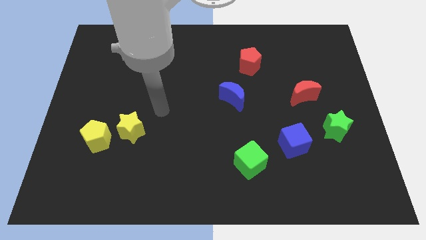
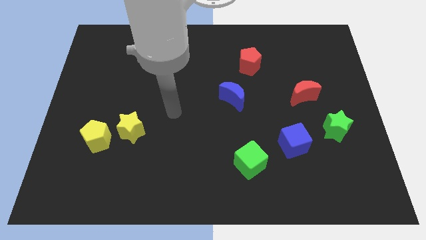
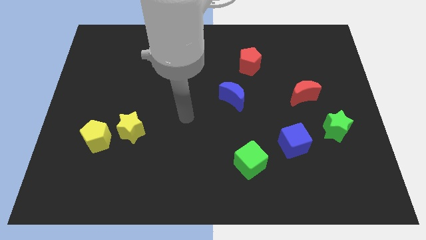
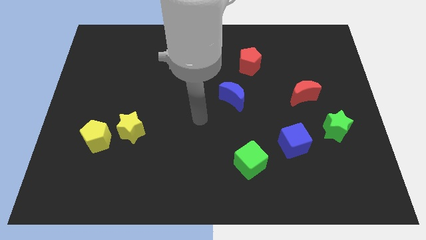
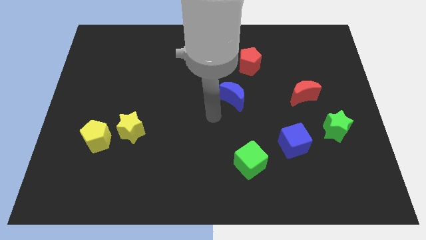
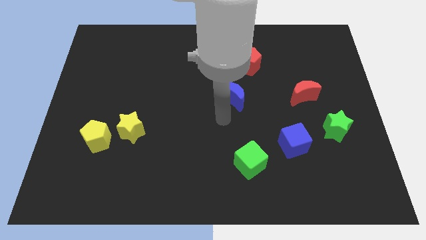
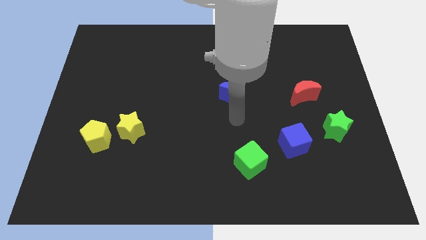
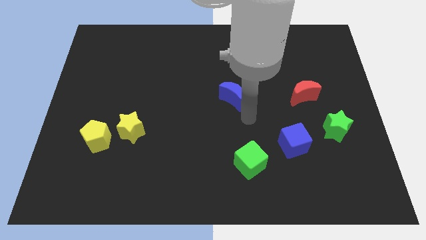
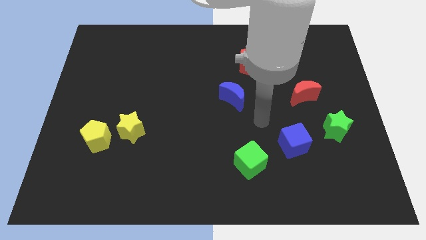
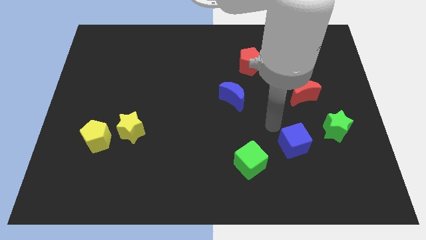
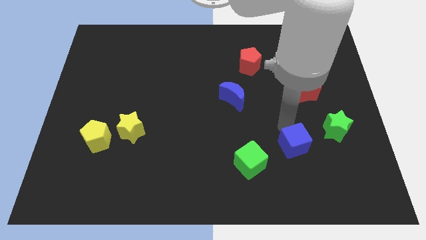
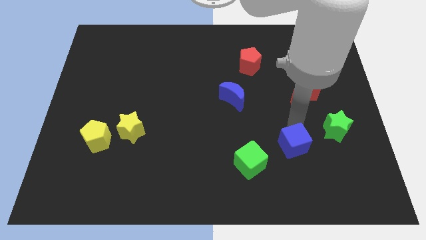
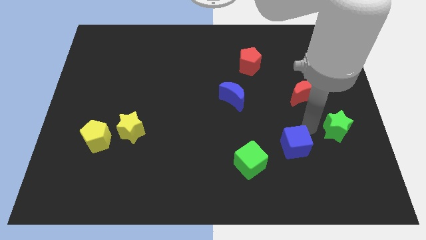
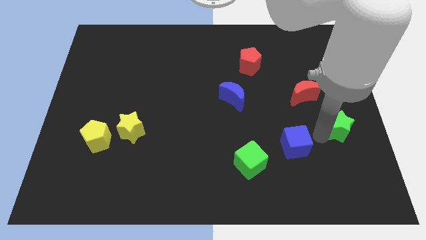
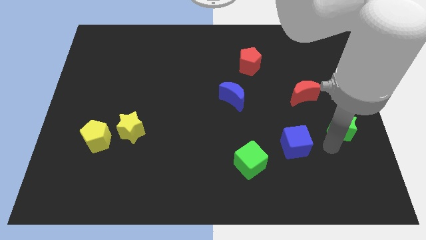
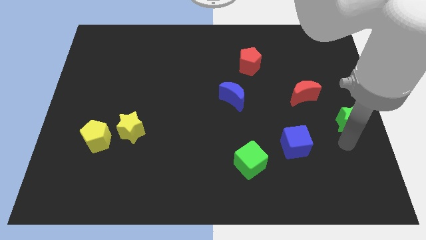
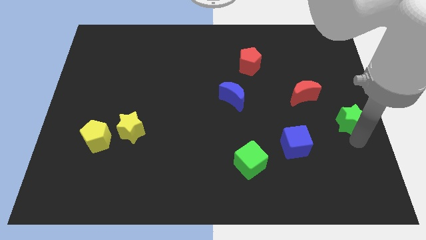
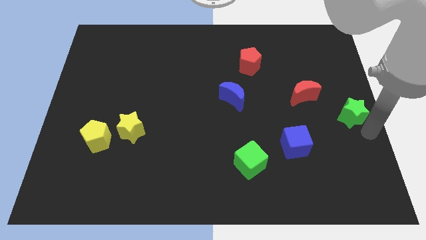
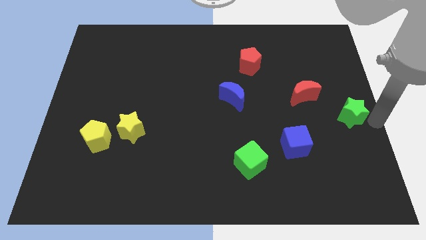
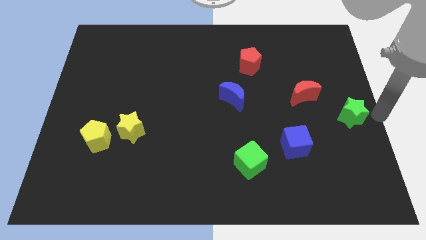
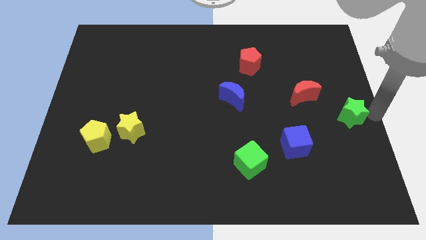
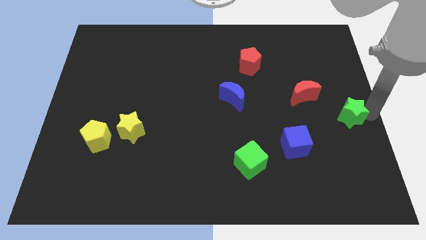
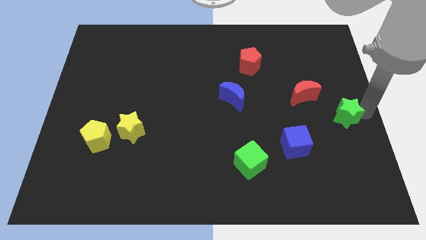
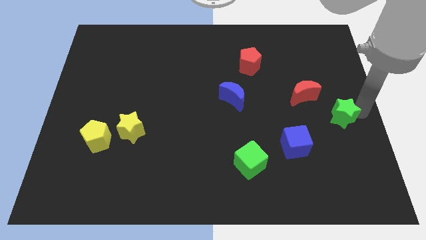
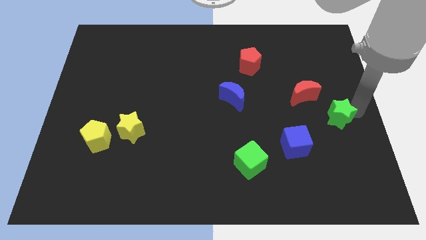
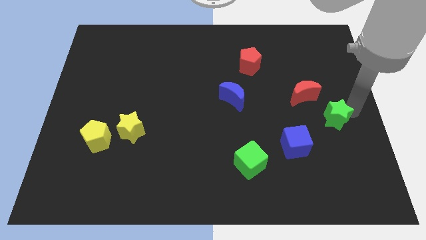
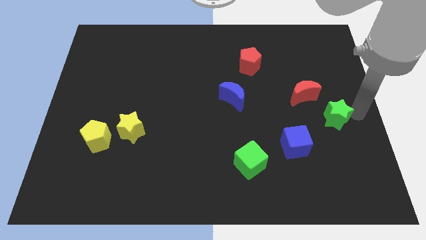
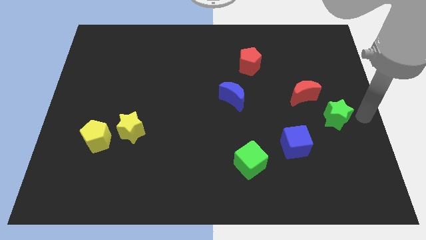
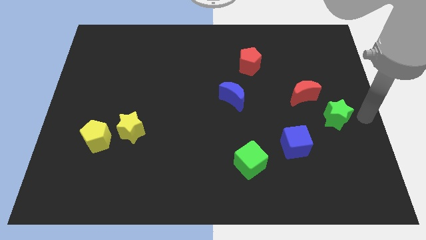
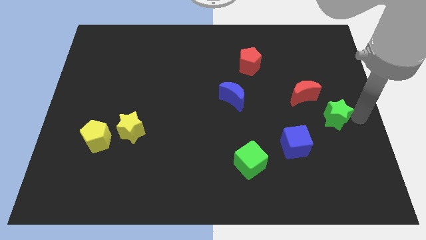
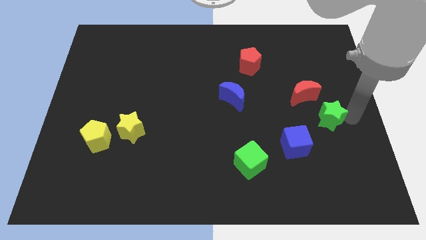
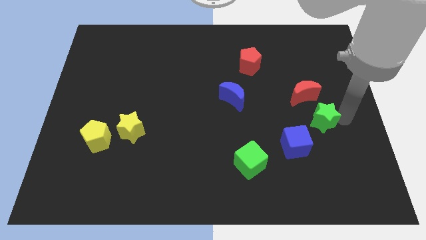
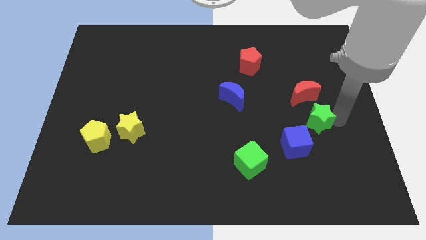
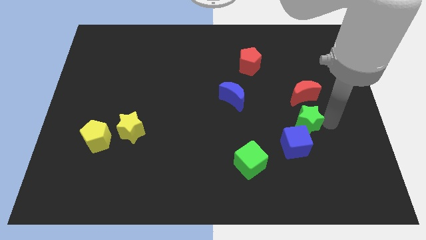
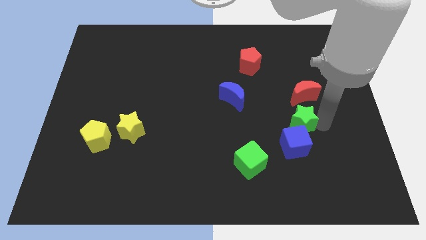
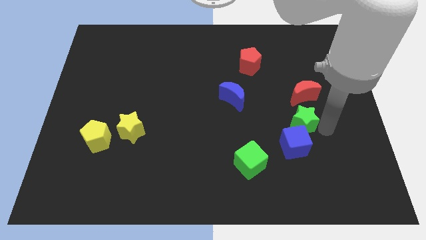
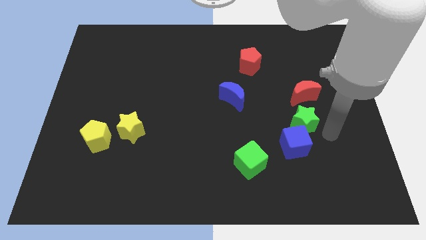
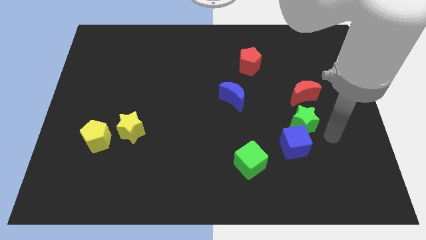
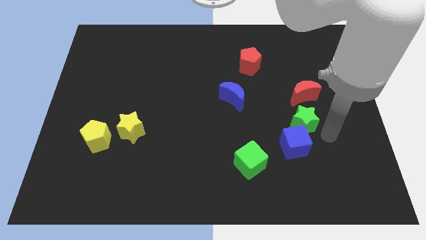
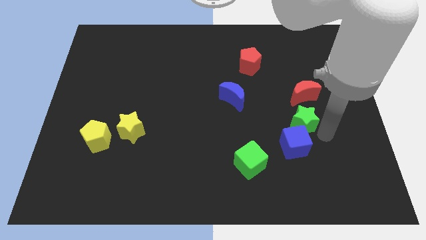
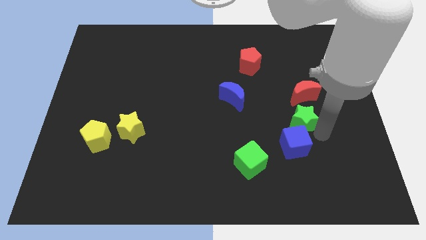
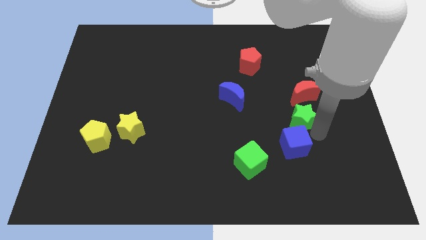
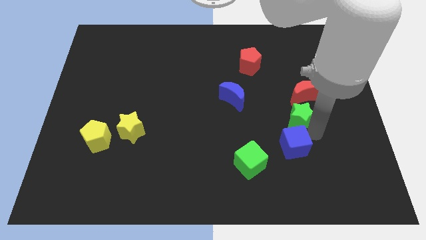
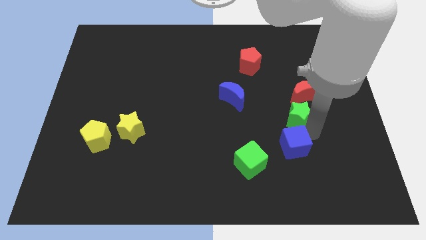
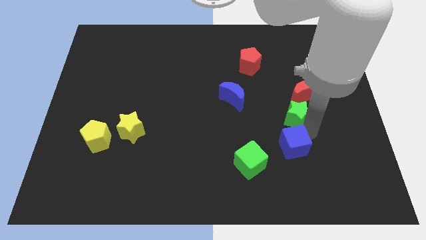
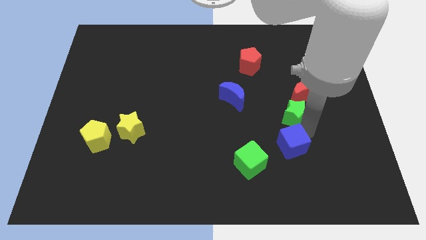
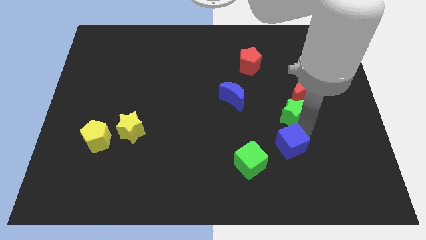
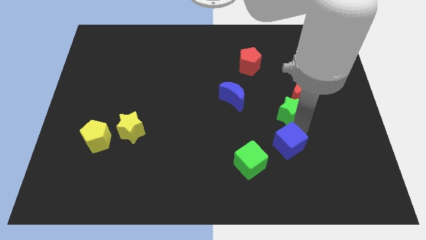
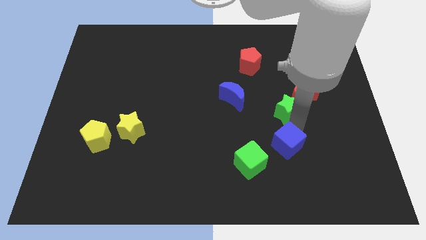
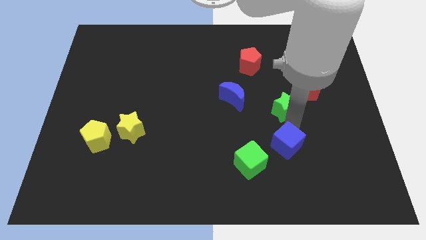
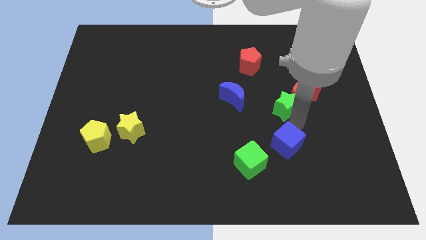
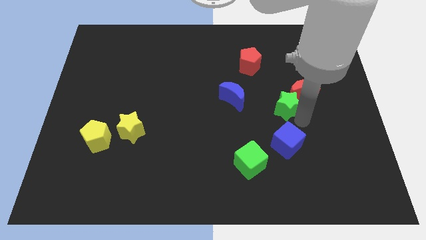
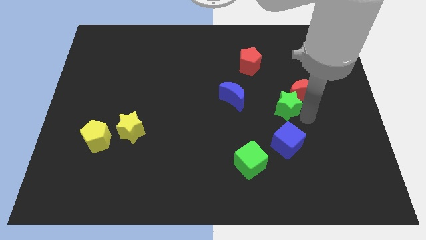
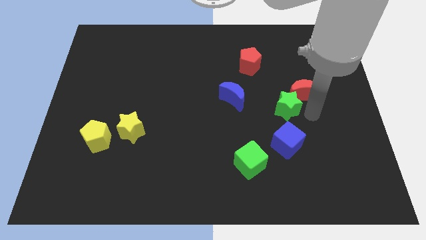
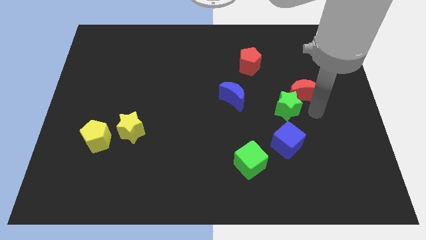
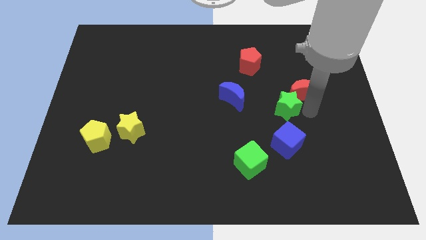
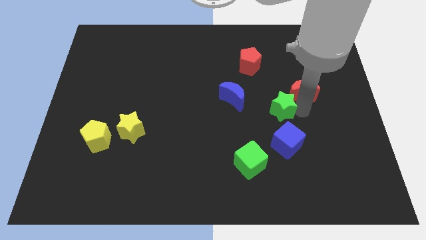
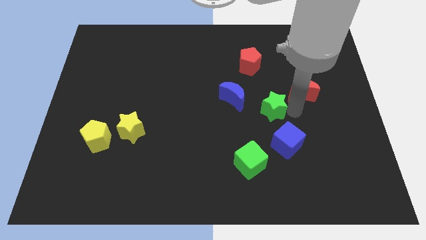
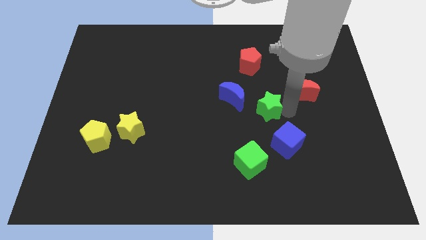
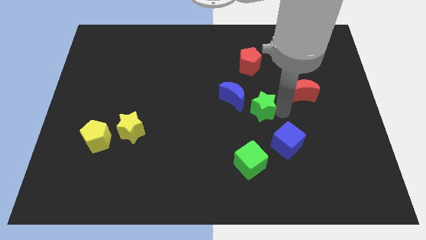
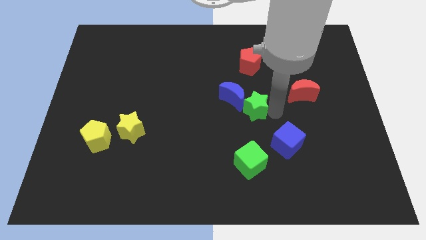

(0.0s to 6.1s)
push the green star towards the blue moon
